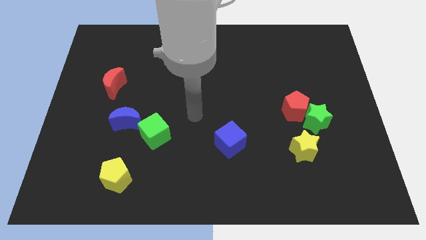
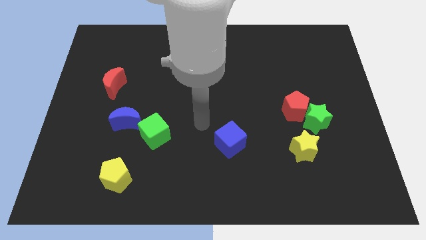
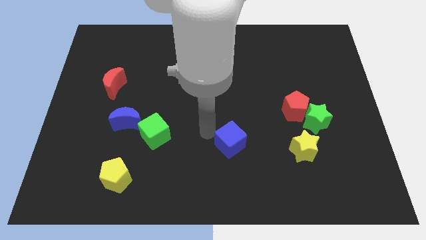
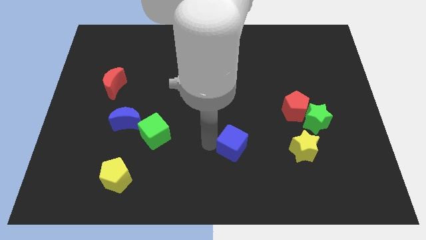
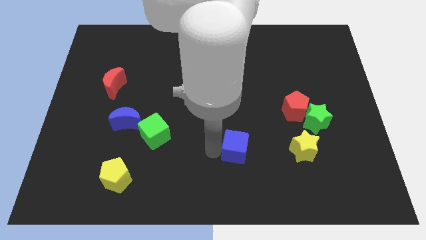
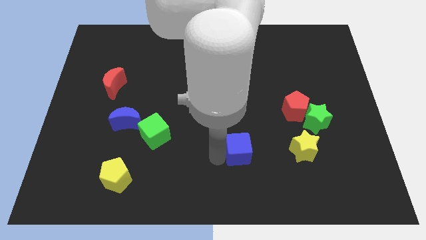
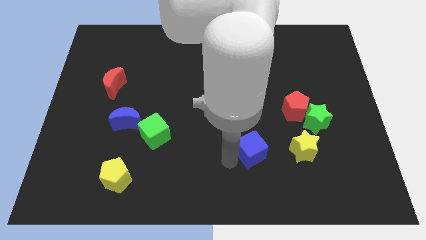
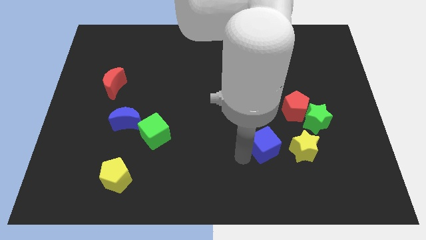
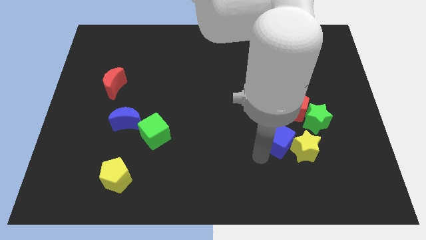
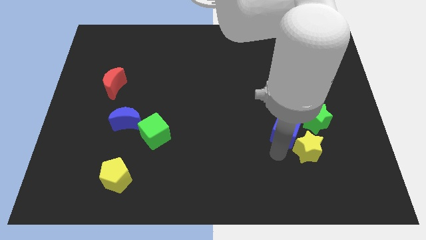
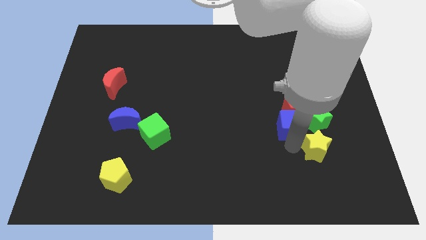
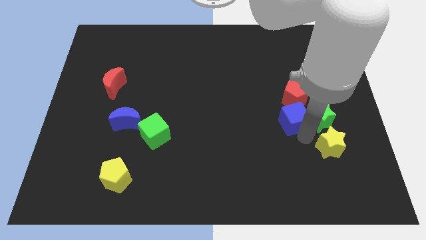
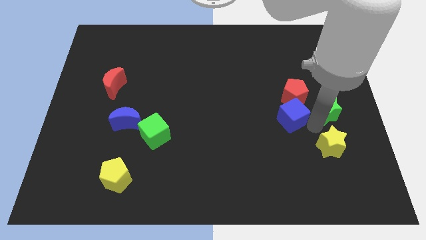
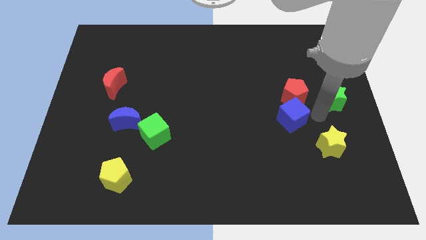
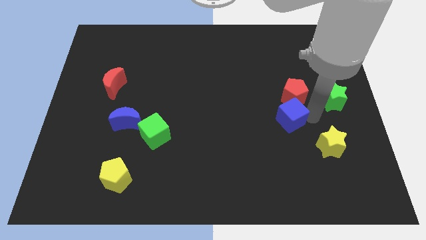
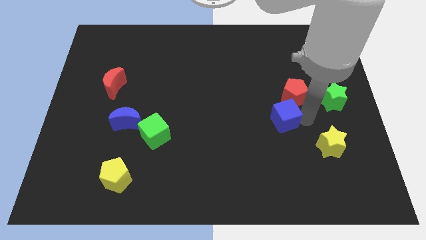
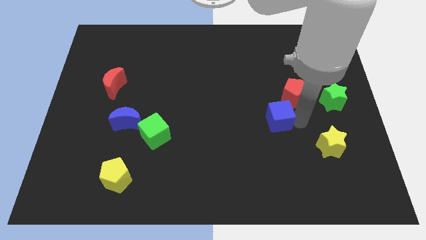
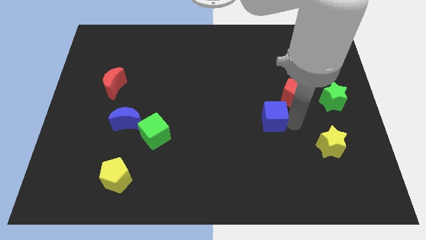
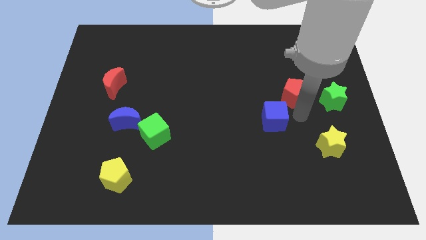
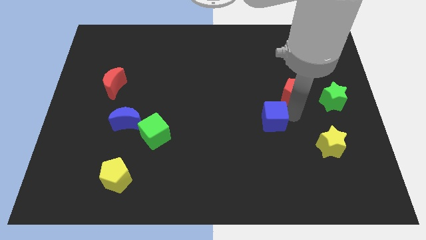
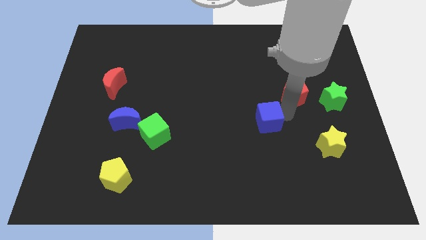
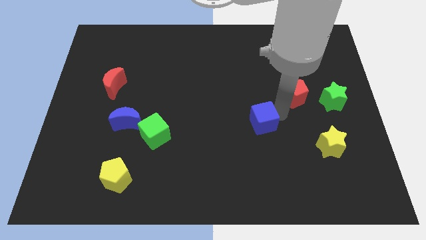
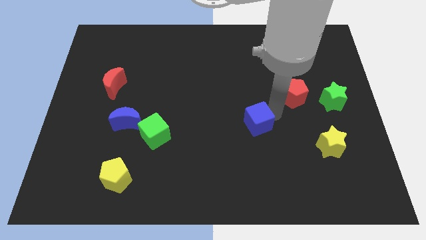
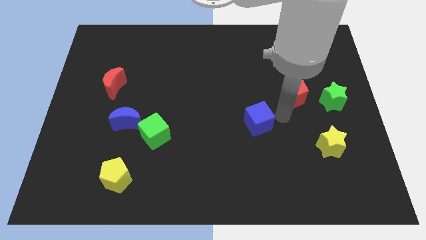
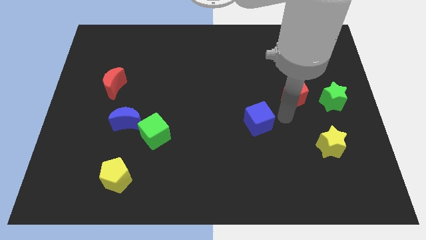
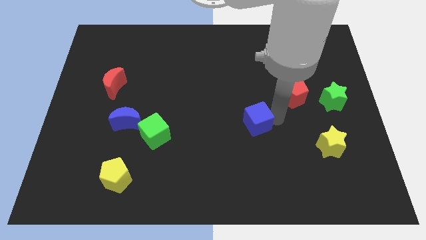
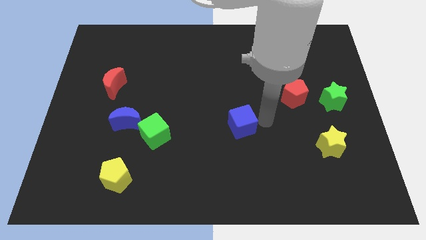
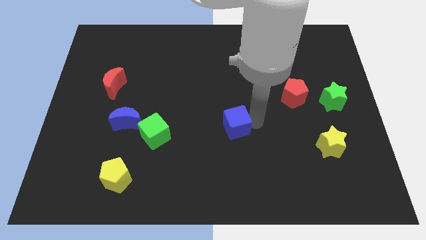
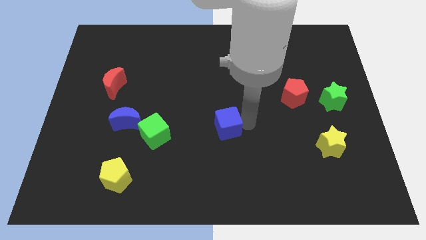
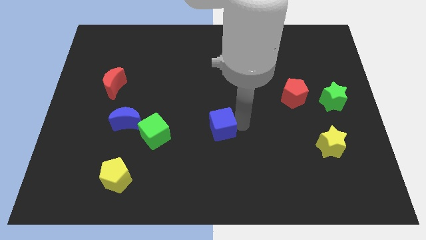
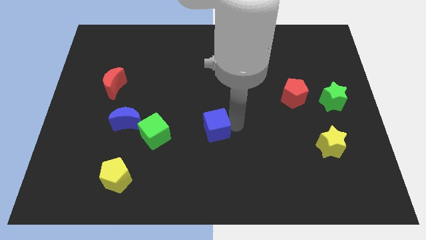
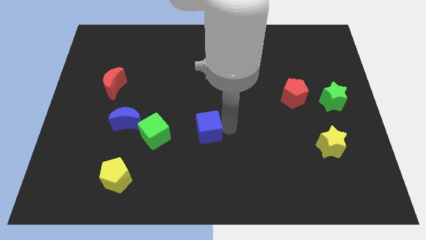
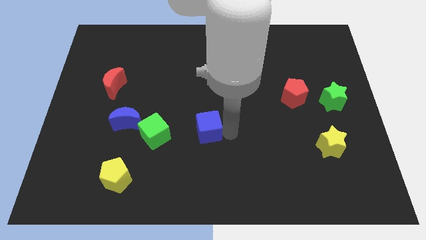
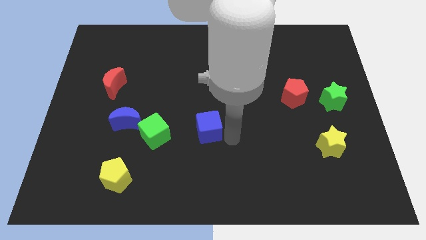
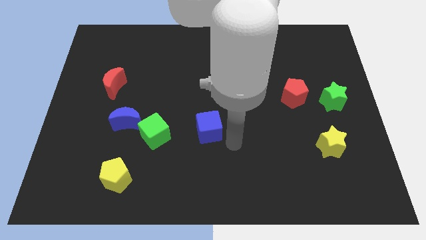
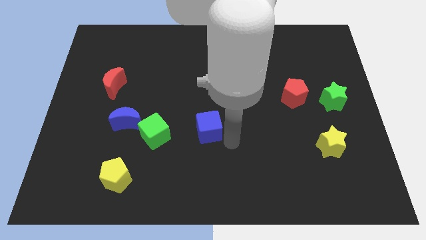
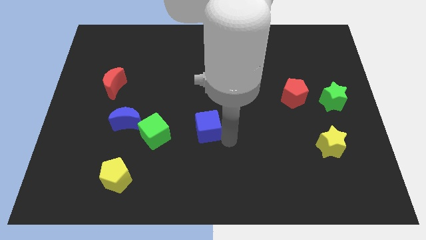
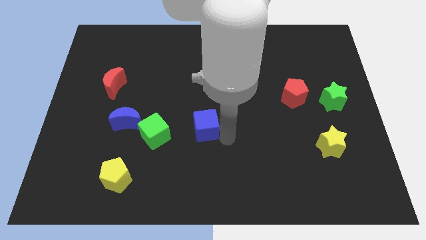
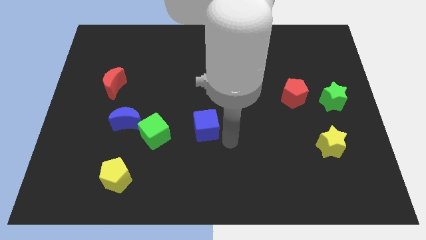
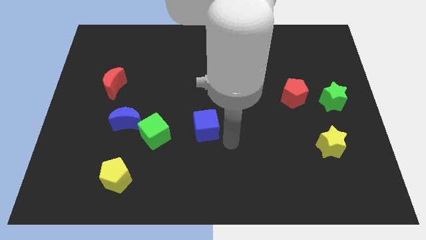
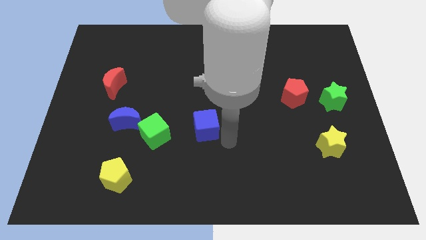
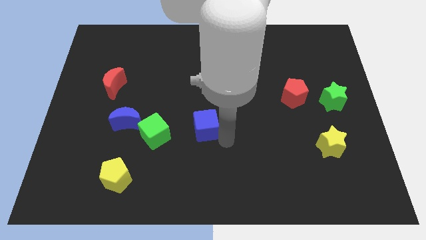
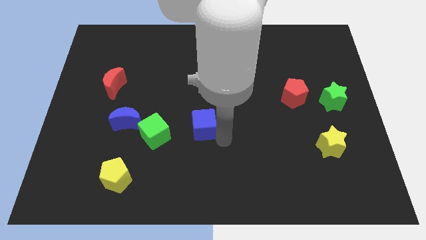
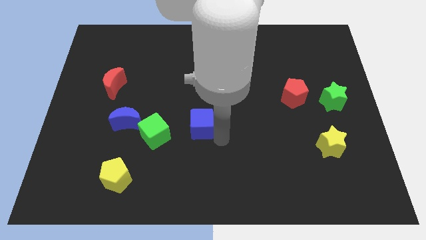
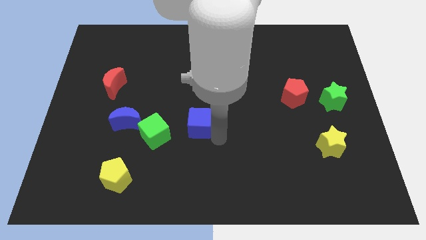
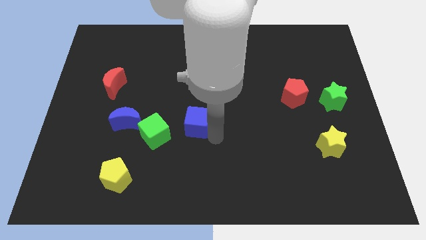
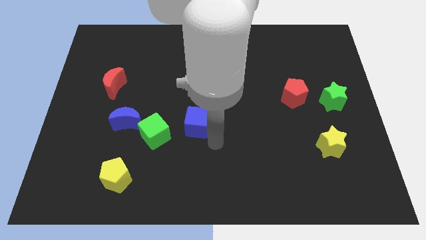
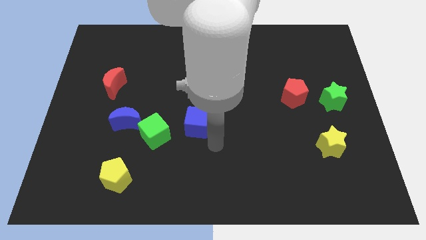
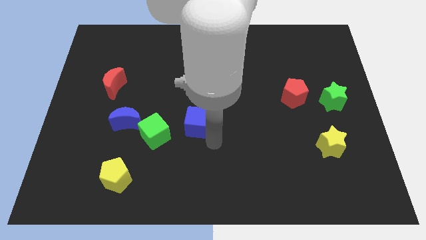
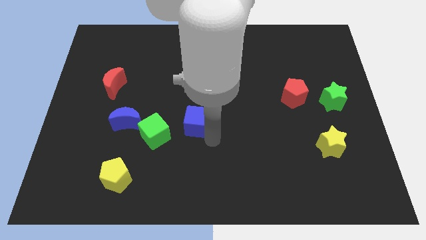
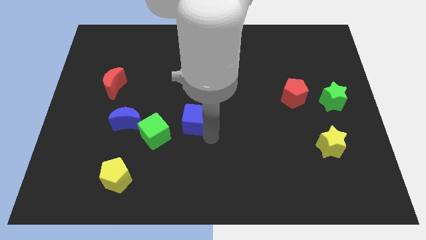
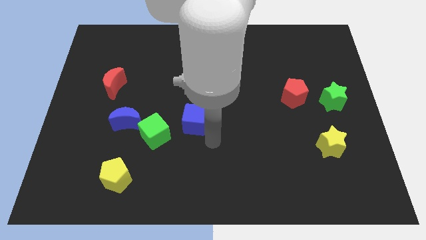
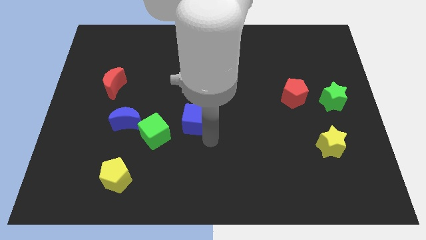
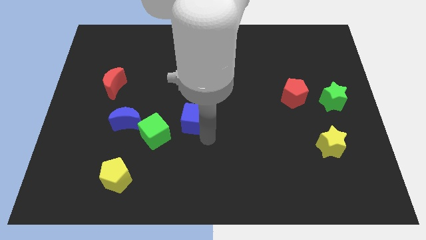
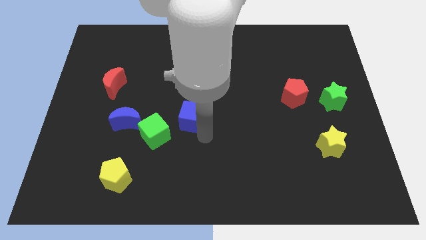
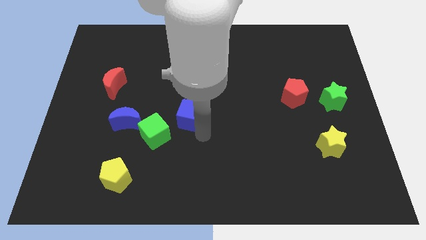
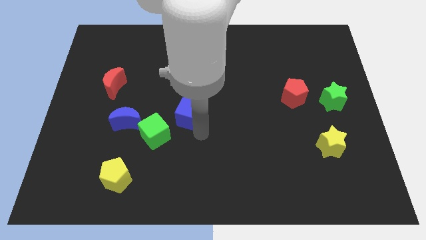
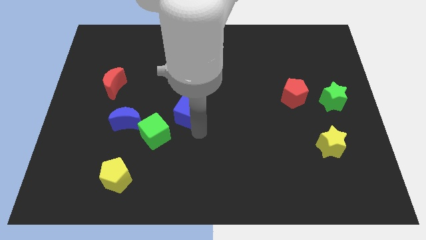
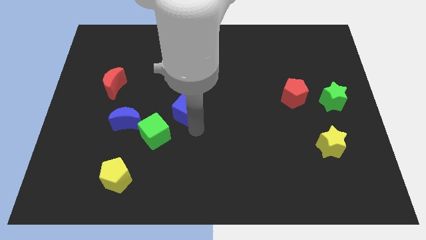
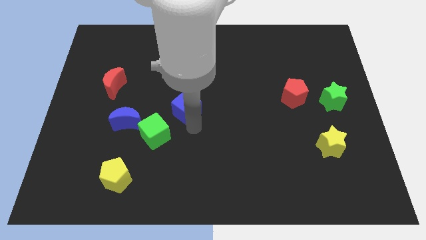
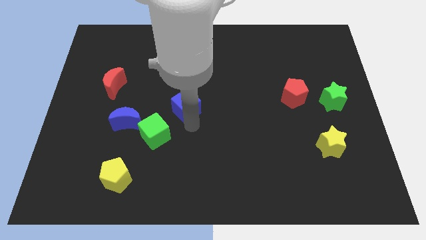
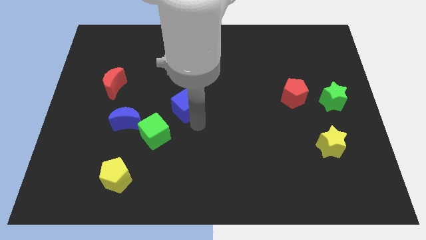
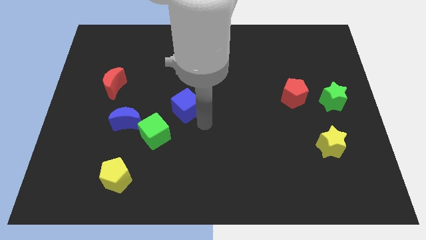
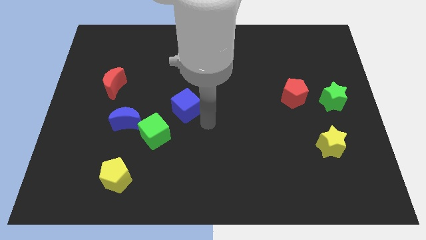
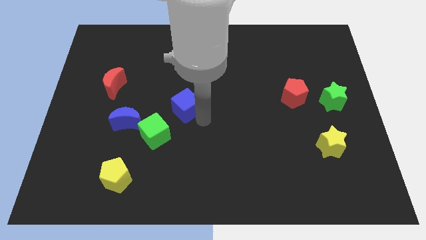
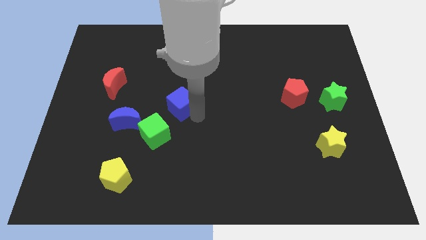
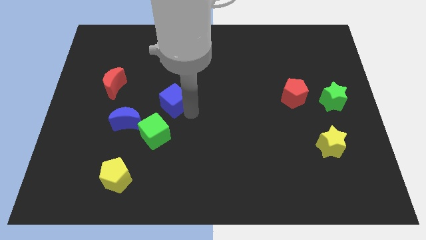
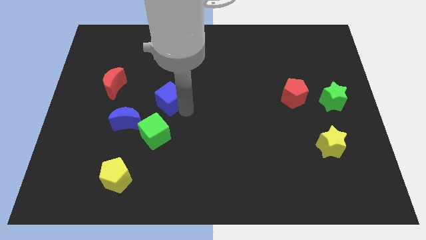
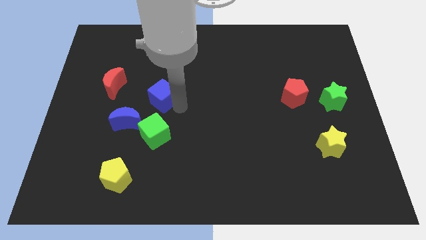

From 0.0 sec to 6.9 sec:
slide the blue cube diagonally upwards and to the left

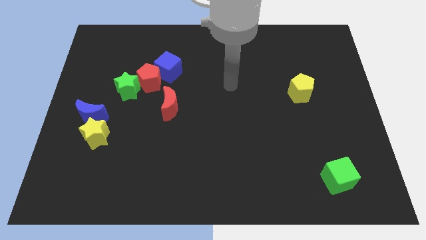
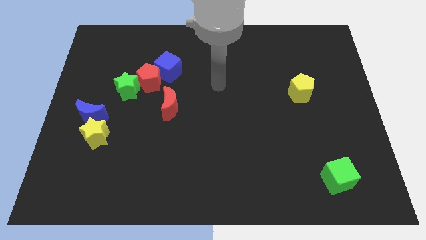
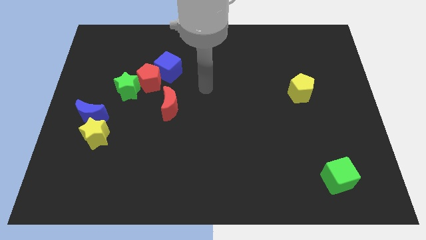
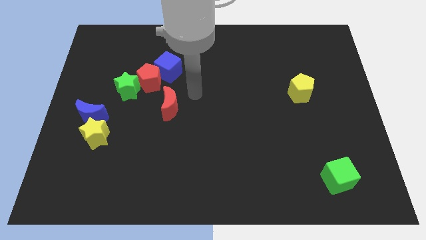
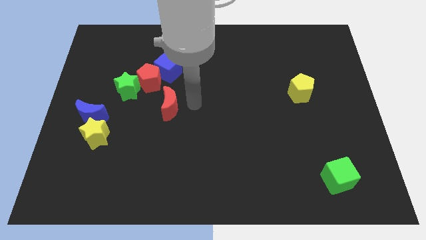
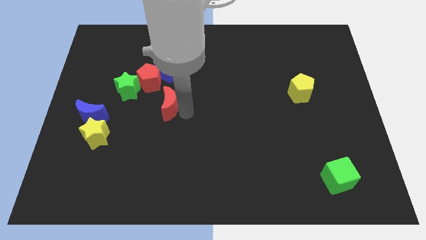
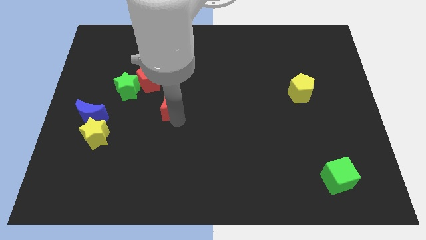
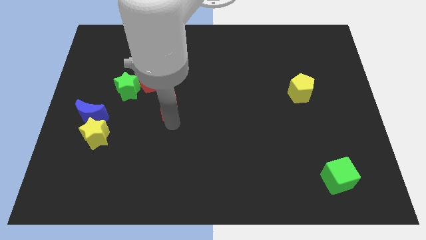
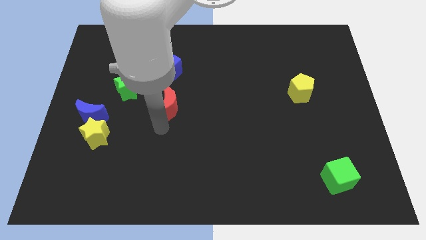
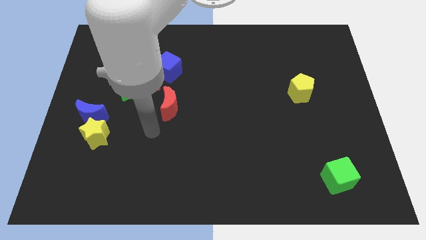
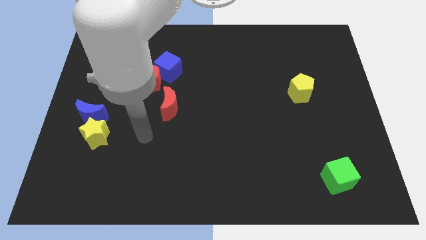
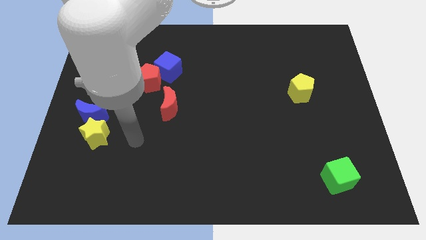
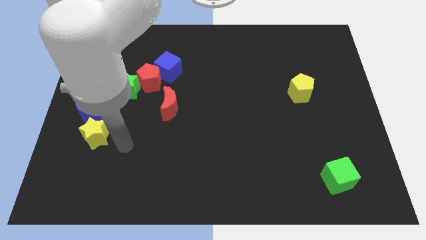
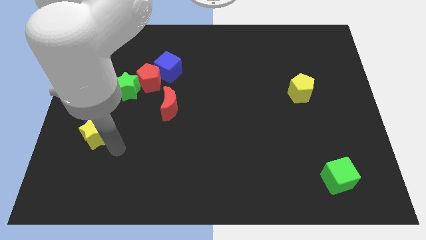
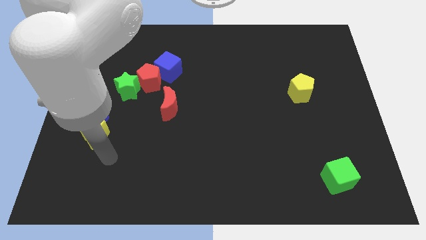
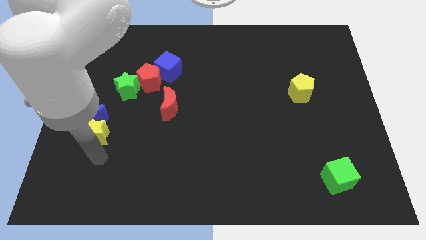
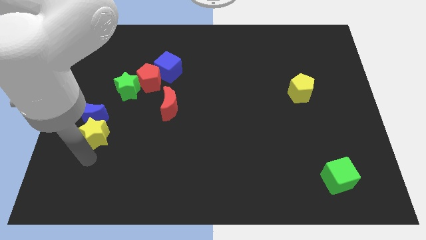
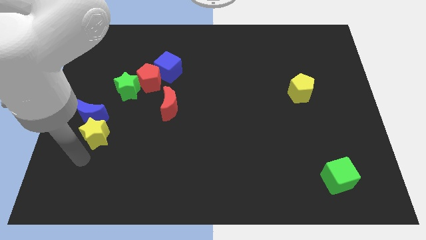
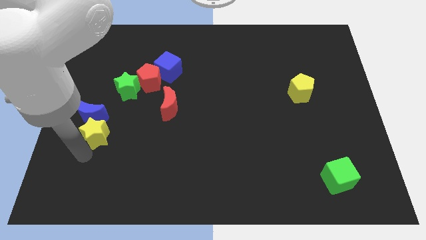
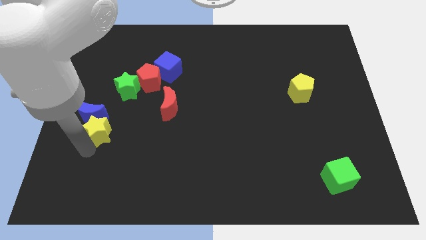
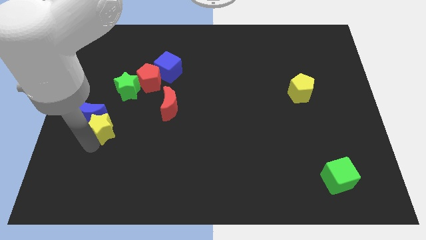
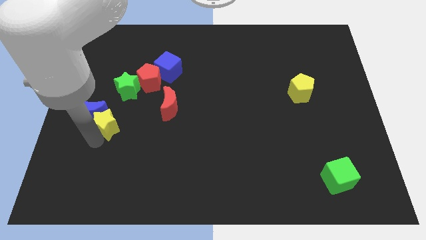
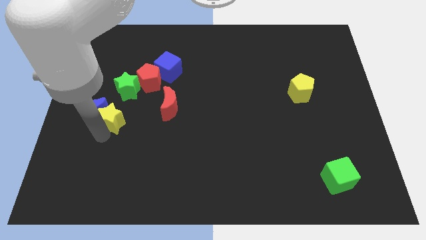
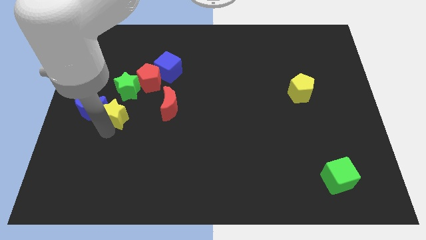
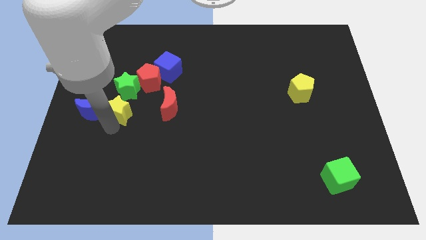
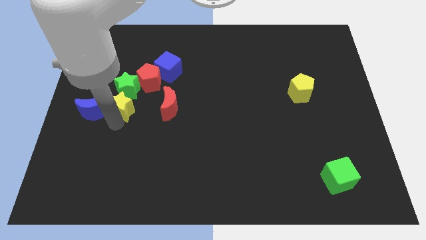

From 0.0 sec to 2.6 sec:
slightly slide the yellow star up
